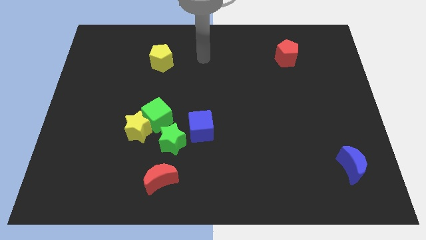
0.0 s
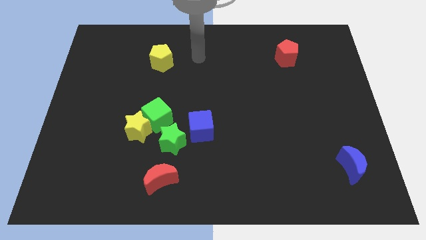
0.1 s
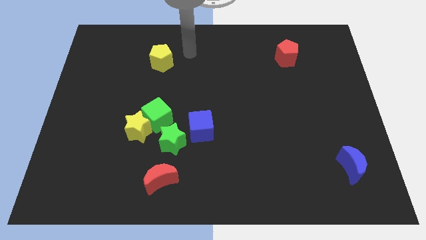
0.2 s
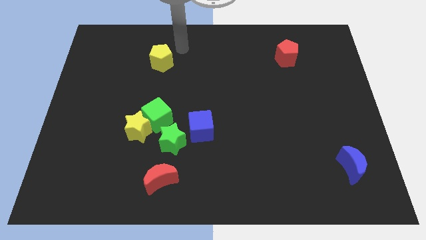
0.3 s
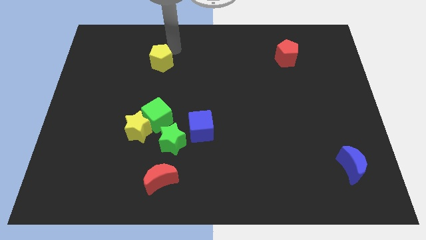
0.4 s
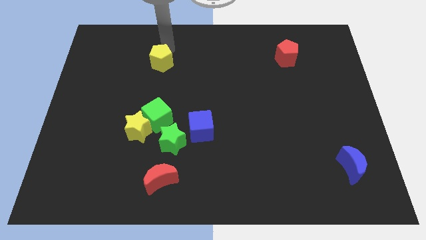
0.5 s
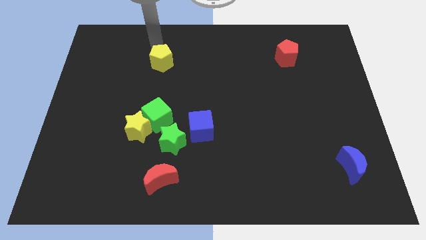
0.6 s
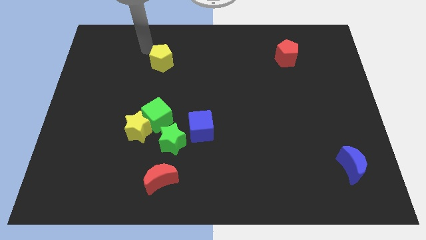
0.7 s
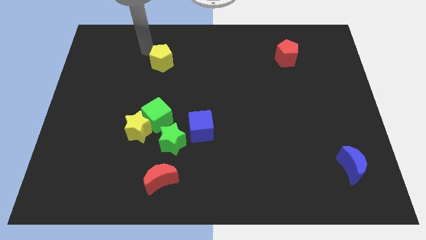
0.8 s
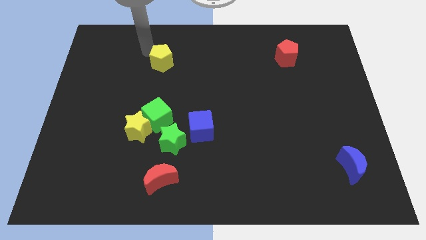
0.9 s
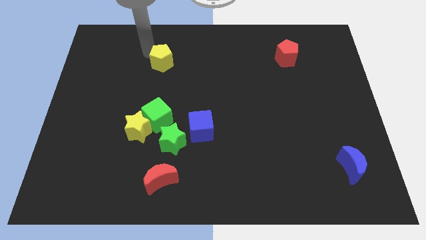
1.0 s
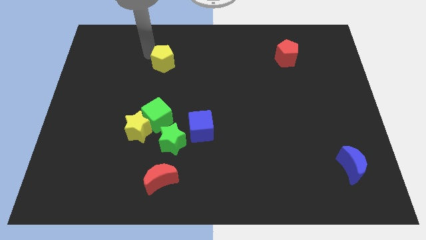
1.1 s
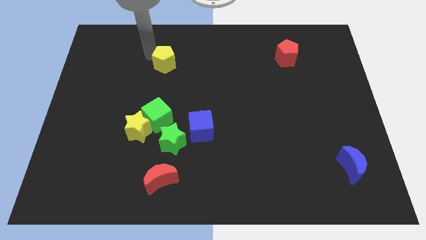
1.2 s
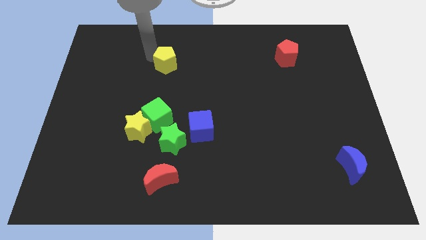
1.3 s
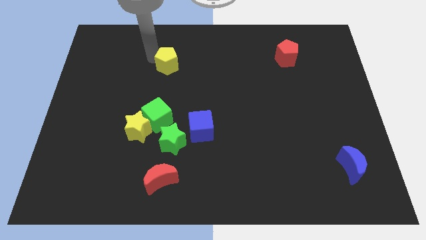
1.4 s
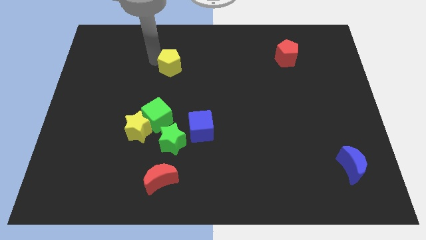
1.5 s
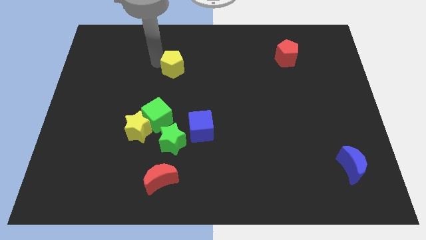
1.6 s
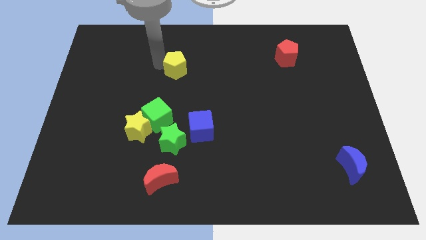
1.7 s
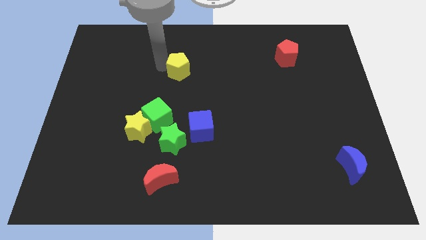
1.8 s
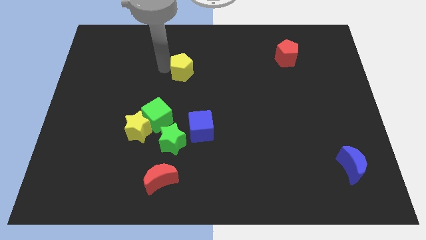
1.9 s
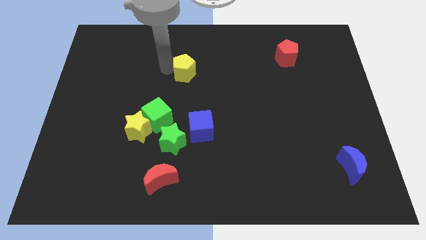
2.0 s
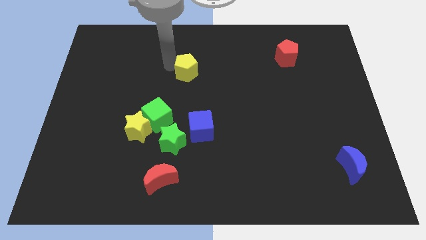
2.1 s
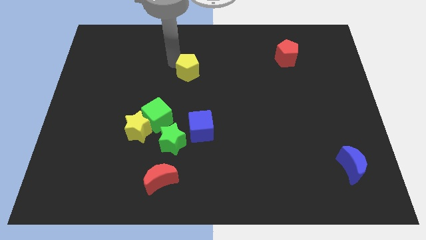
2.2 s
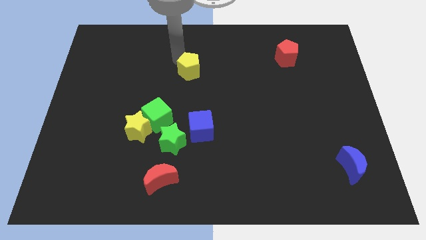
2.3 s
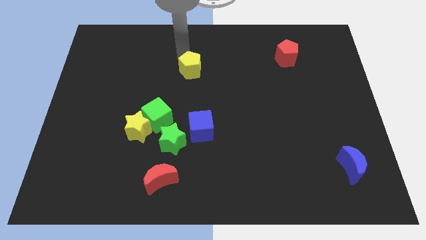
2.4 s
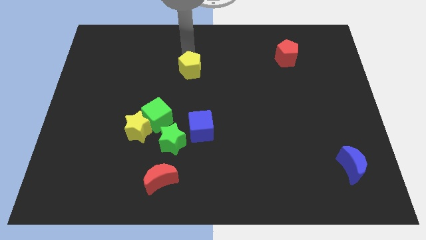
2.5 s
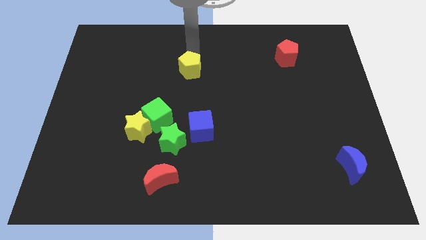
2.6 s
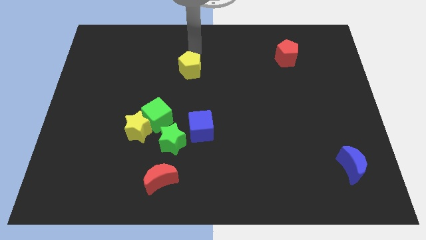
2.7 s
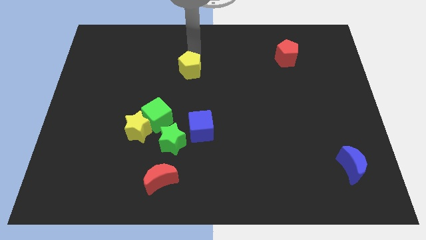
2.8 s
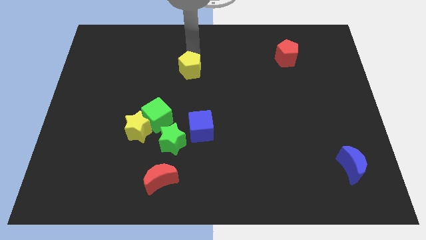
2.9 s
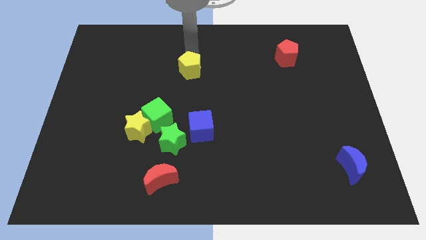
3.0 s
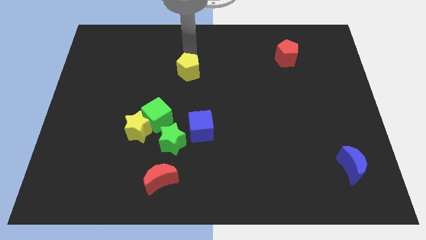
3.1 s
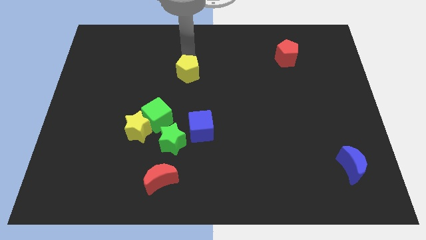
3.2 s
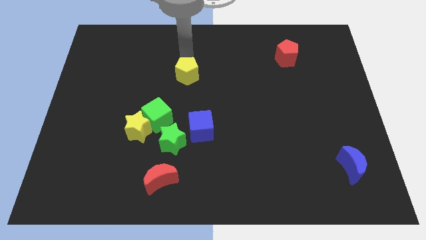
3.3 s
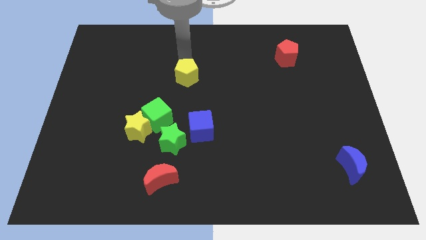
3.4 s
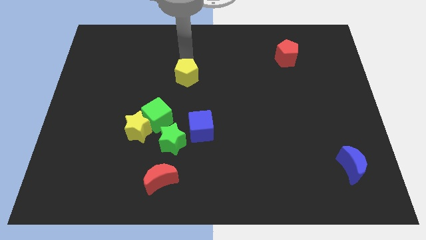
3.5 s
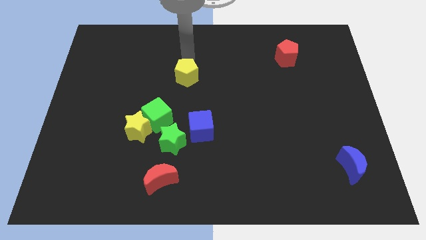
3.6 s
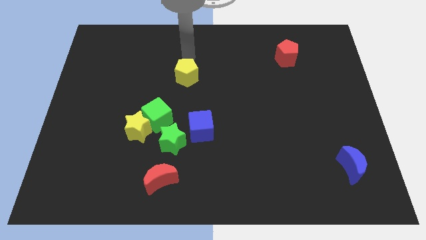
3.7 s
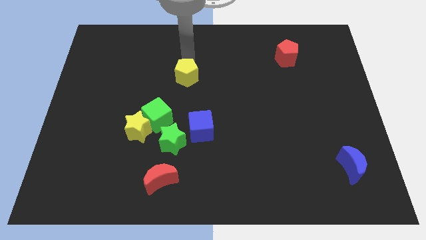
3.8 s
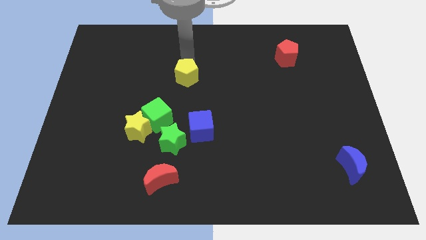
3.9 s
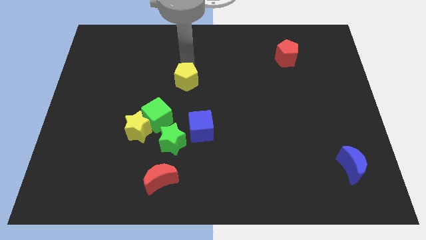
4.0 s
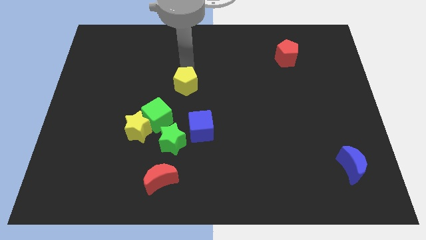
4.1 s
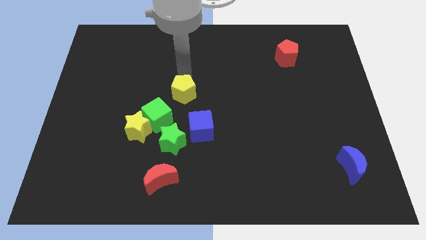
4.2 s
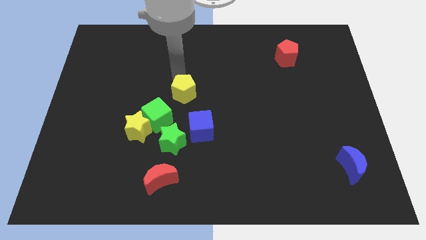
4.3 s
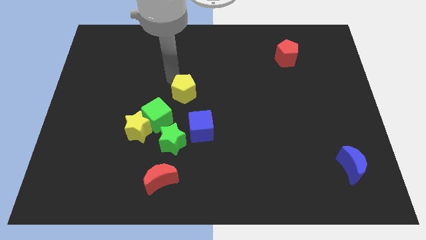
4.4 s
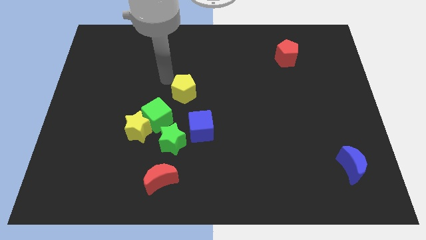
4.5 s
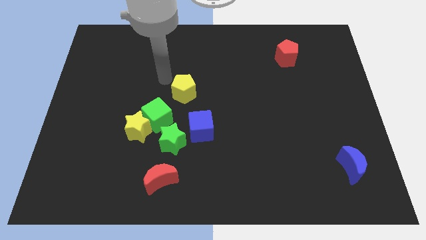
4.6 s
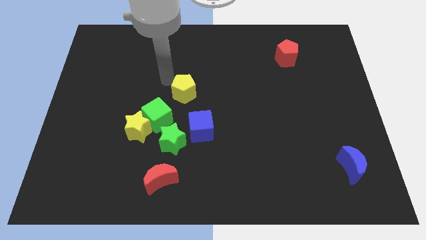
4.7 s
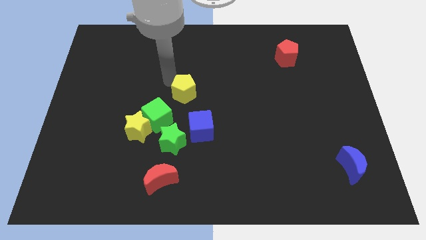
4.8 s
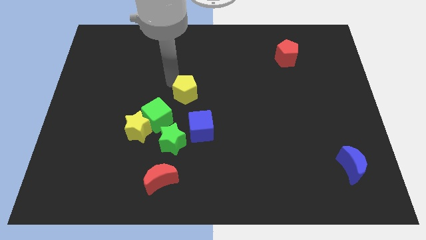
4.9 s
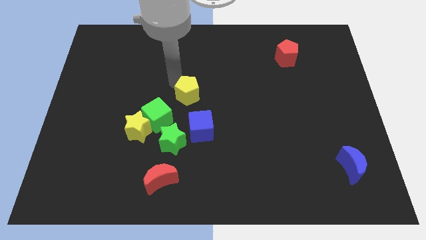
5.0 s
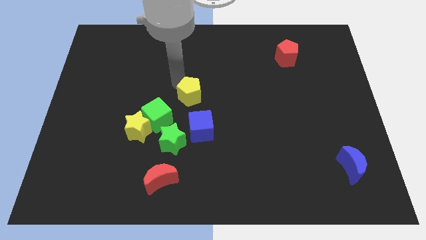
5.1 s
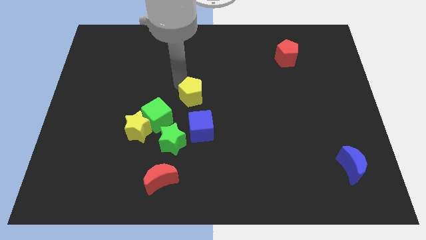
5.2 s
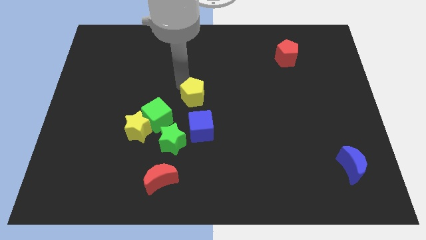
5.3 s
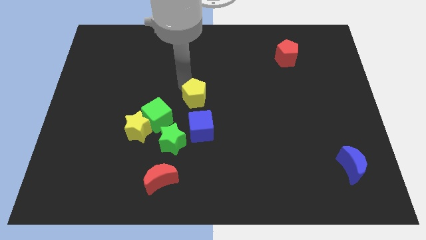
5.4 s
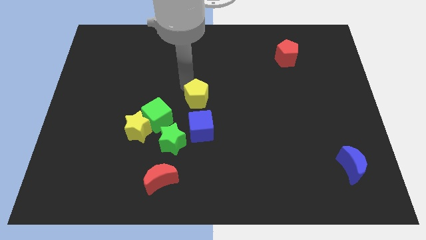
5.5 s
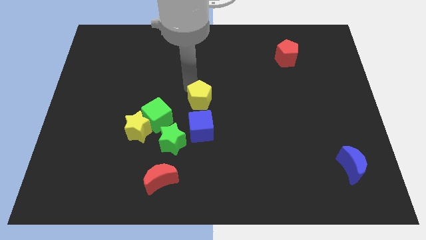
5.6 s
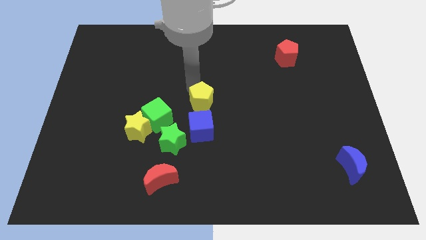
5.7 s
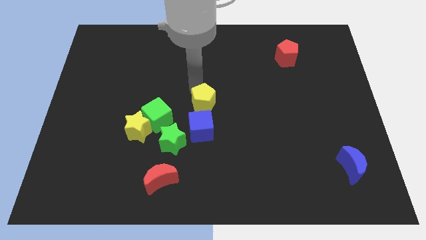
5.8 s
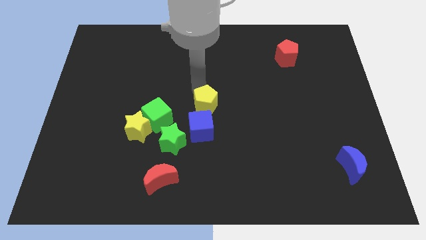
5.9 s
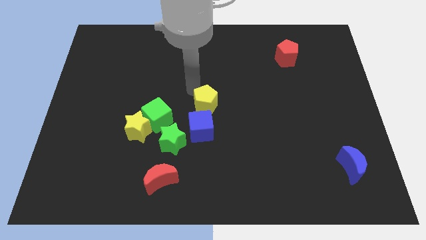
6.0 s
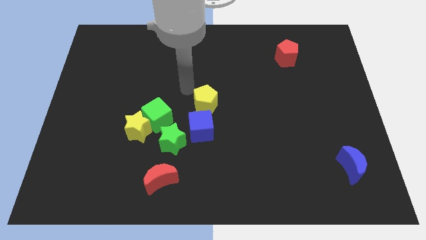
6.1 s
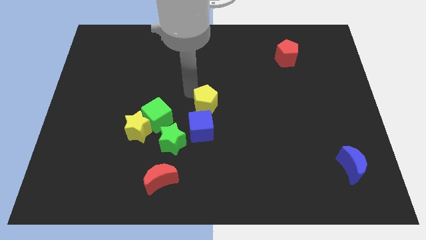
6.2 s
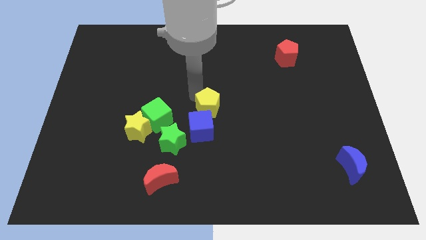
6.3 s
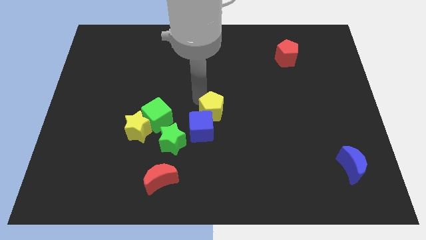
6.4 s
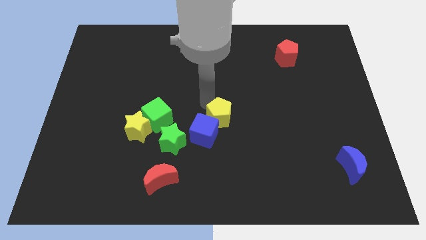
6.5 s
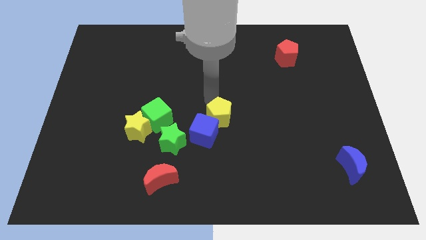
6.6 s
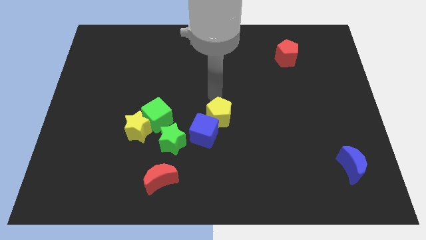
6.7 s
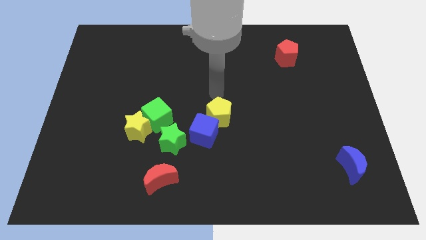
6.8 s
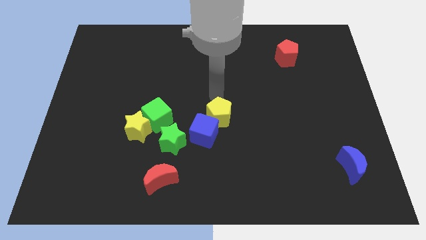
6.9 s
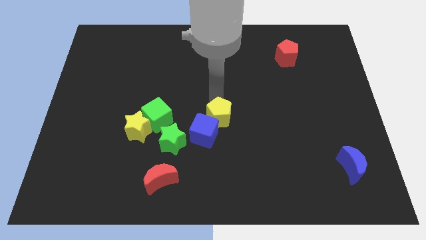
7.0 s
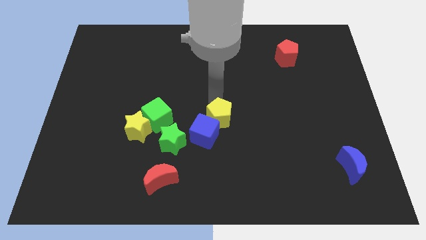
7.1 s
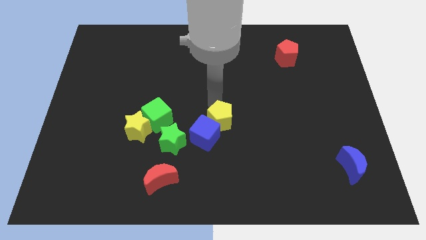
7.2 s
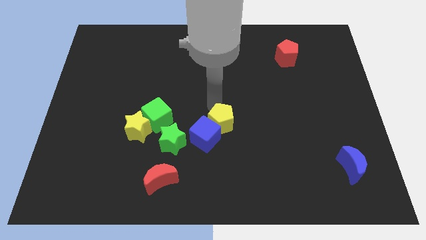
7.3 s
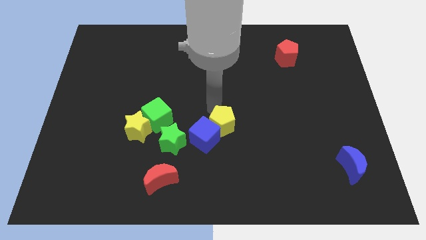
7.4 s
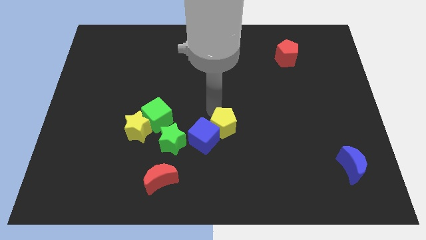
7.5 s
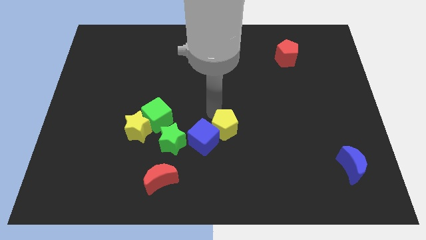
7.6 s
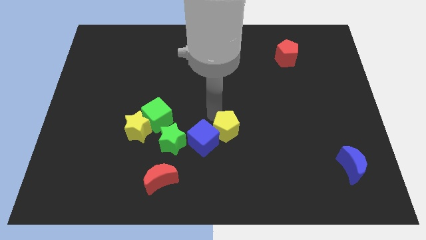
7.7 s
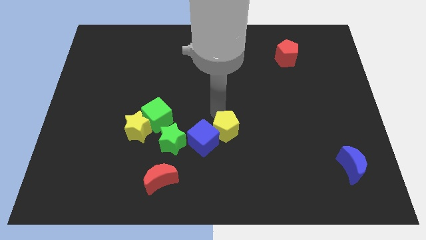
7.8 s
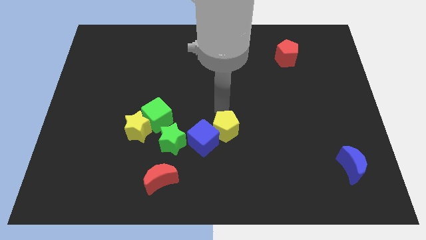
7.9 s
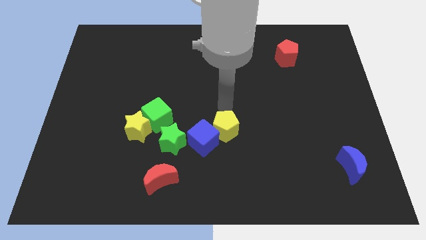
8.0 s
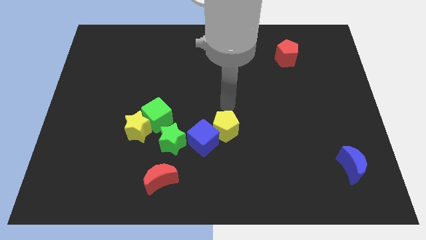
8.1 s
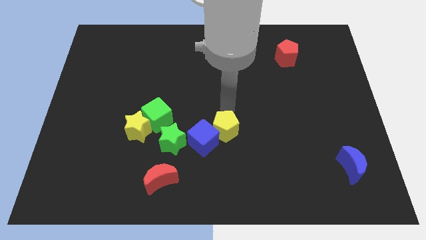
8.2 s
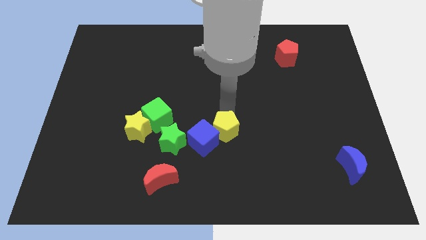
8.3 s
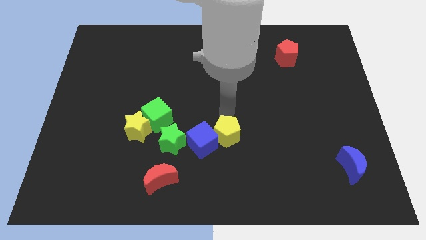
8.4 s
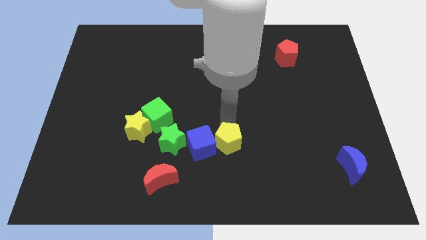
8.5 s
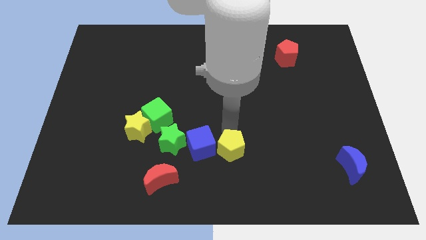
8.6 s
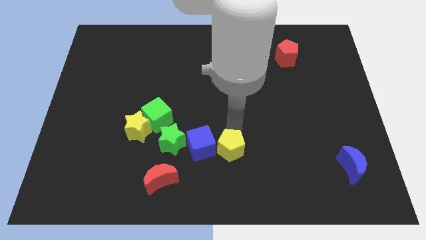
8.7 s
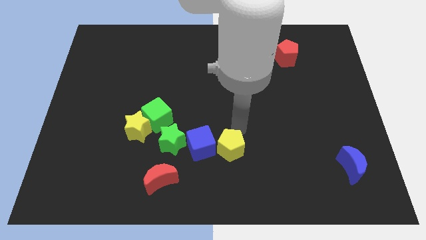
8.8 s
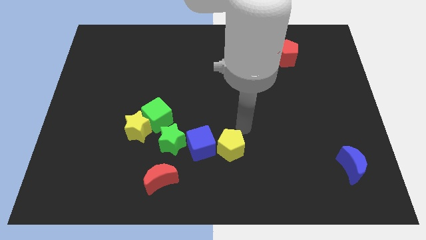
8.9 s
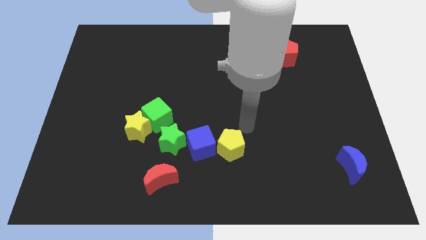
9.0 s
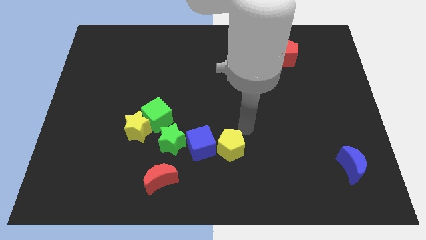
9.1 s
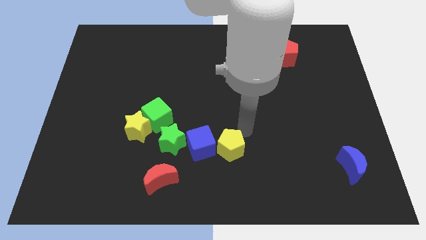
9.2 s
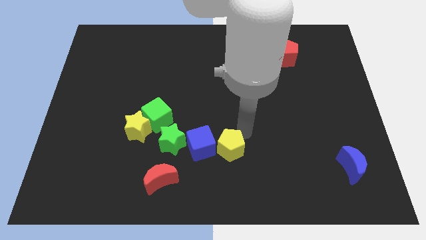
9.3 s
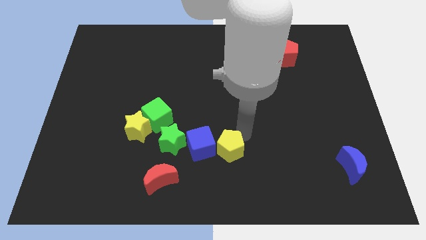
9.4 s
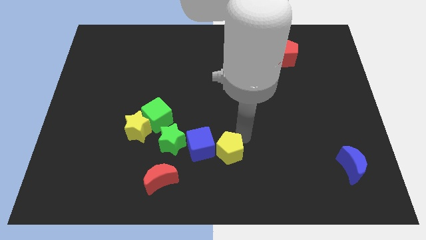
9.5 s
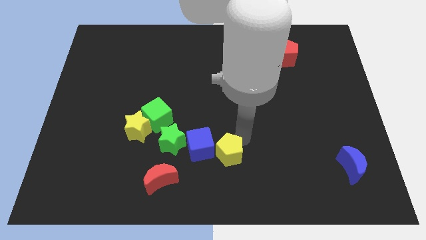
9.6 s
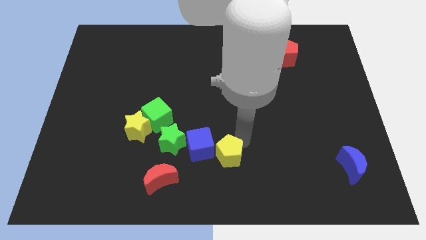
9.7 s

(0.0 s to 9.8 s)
slide the yellow pentagon to the bottom
